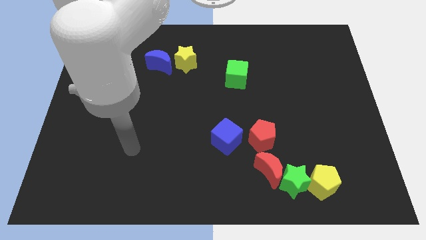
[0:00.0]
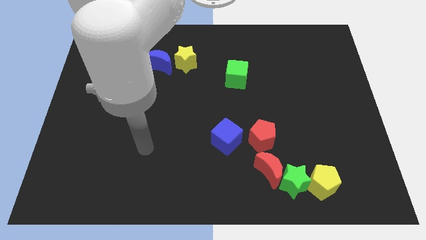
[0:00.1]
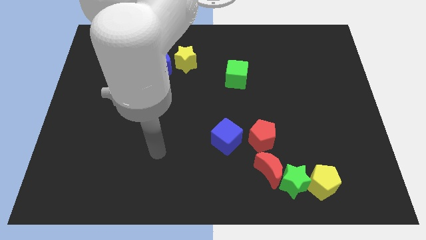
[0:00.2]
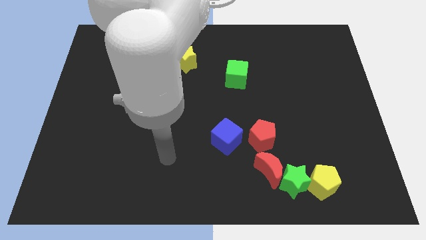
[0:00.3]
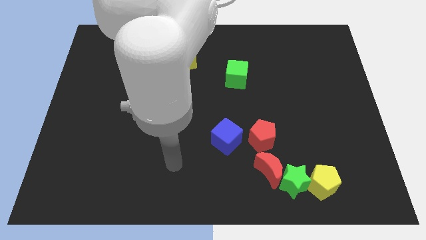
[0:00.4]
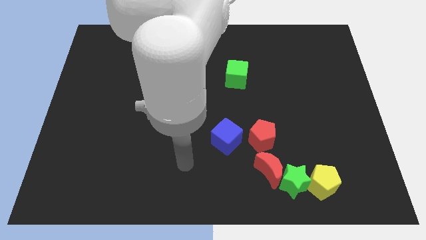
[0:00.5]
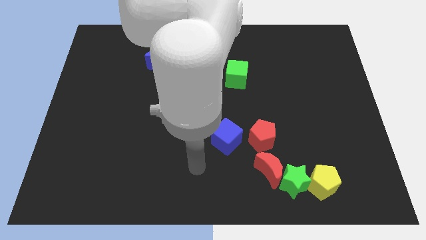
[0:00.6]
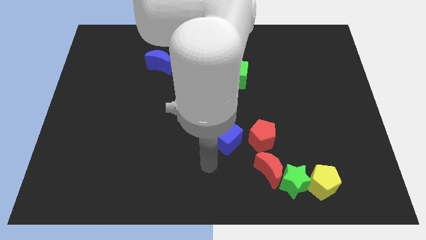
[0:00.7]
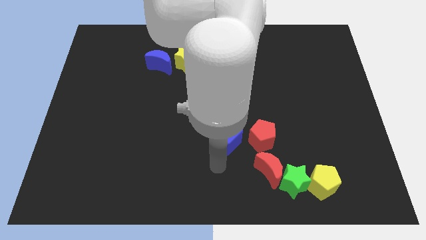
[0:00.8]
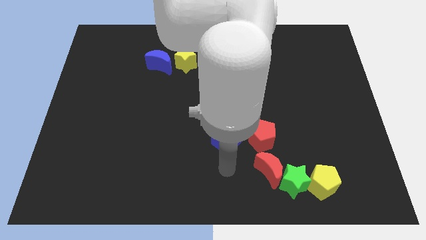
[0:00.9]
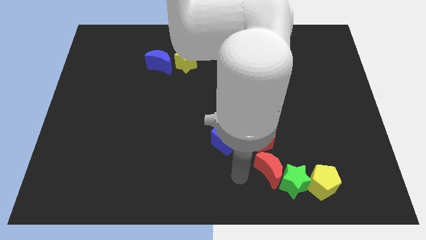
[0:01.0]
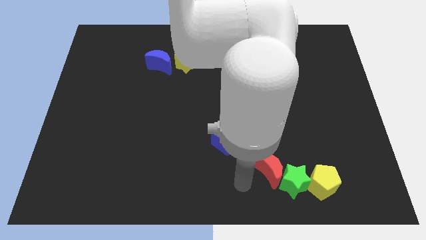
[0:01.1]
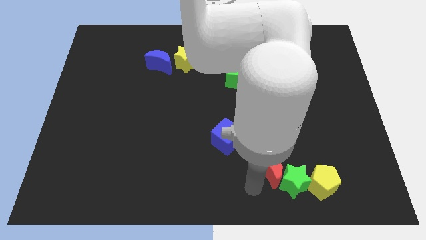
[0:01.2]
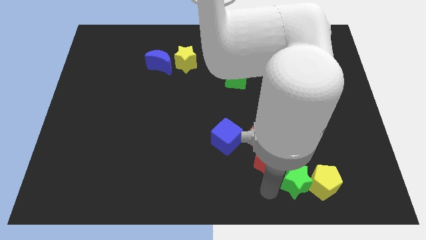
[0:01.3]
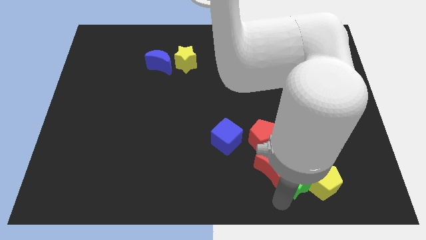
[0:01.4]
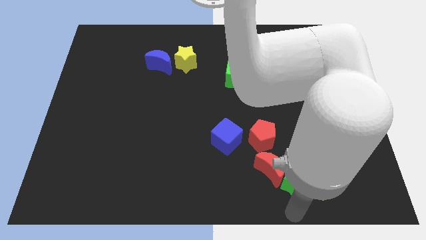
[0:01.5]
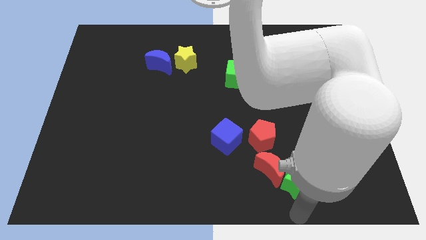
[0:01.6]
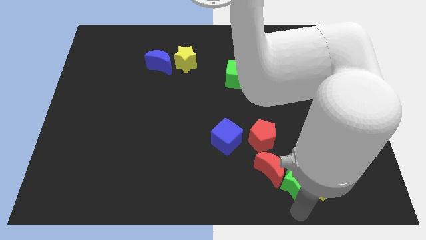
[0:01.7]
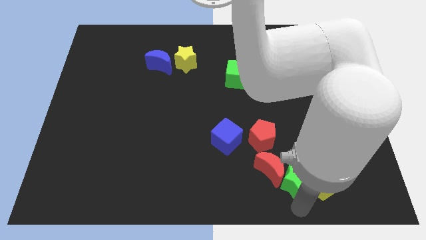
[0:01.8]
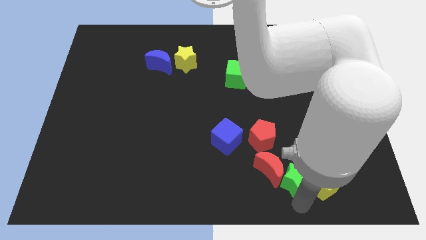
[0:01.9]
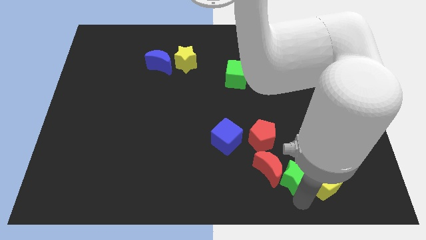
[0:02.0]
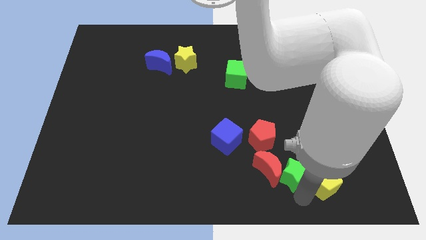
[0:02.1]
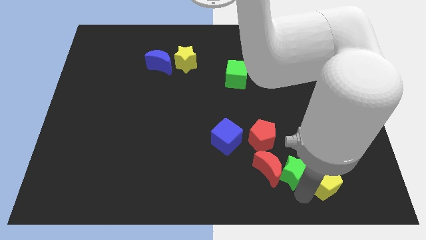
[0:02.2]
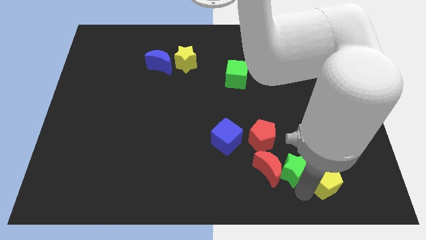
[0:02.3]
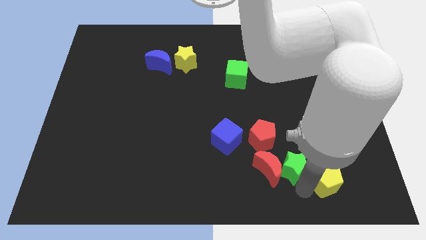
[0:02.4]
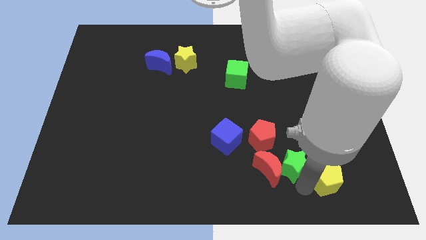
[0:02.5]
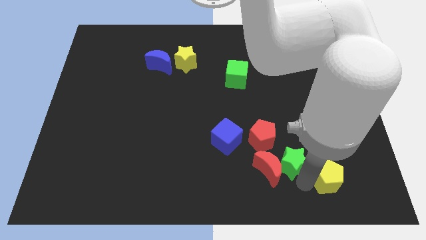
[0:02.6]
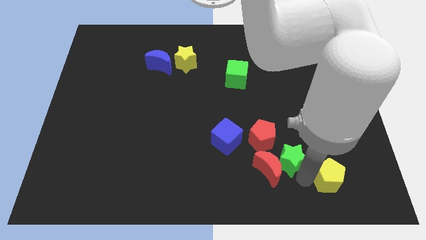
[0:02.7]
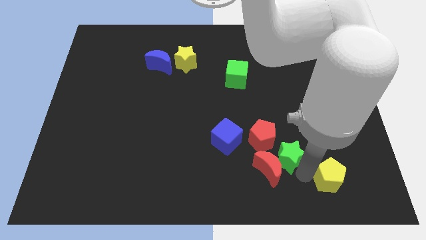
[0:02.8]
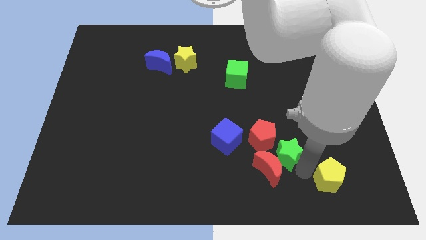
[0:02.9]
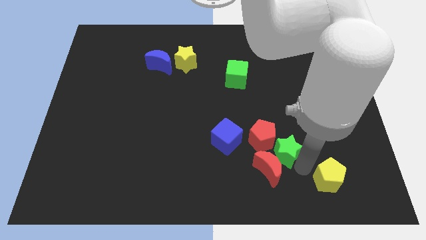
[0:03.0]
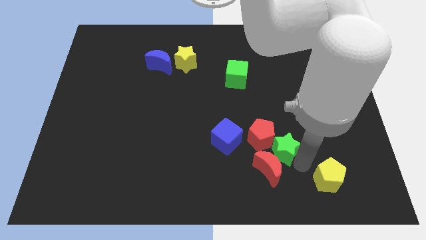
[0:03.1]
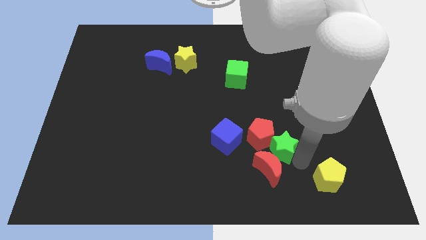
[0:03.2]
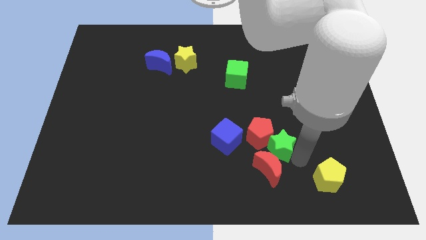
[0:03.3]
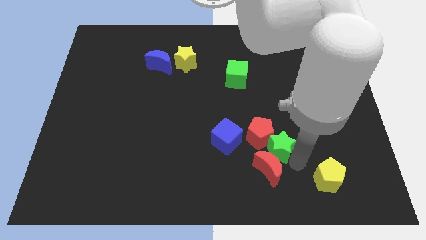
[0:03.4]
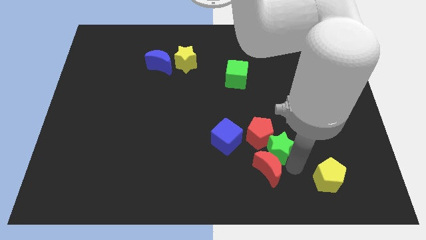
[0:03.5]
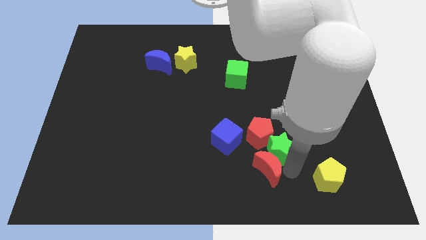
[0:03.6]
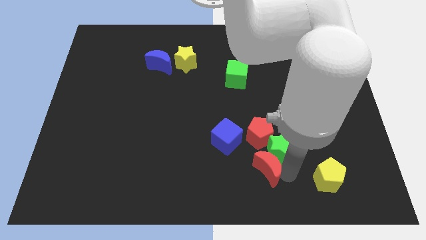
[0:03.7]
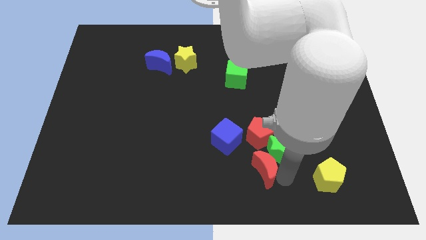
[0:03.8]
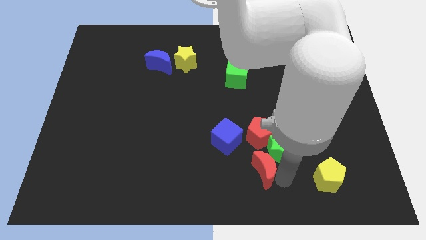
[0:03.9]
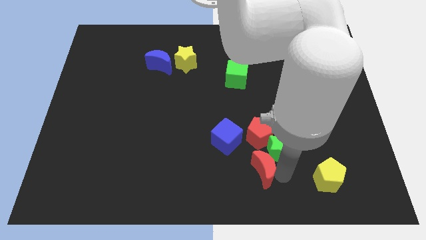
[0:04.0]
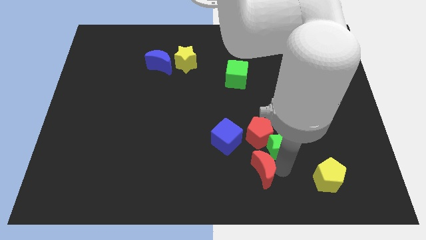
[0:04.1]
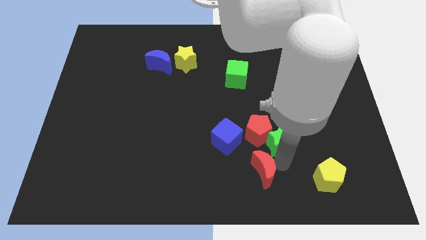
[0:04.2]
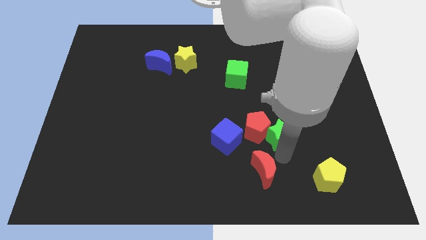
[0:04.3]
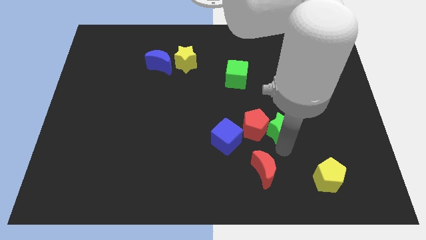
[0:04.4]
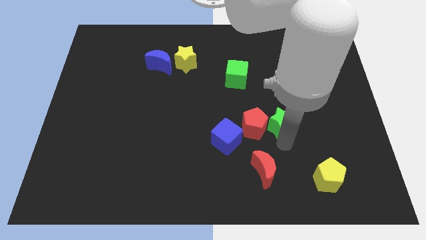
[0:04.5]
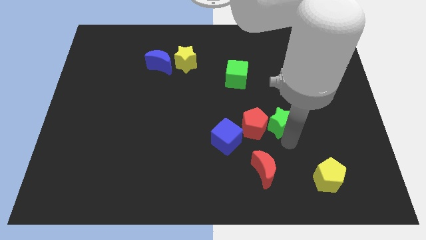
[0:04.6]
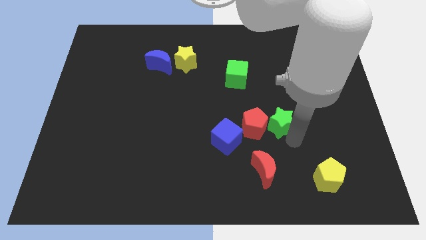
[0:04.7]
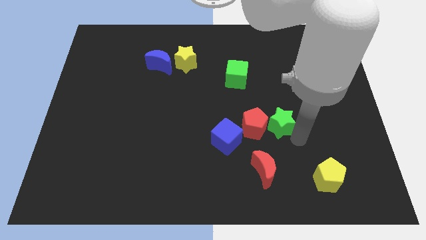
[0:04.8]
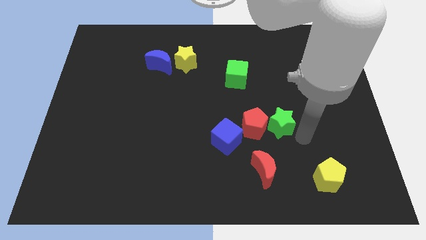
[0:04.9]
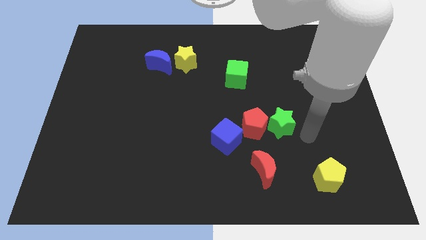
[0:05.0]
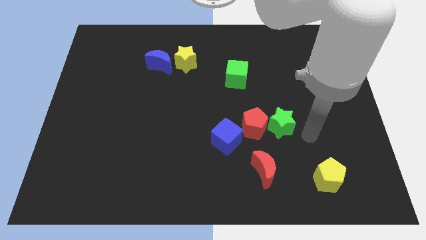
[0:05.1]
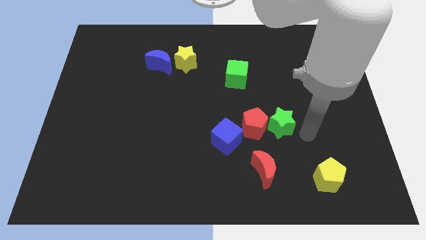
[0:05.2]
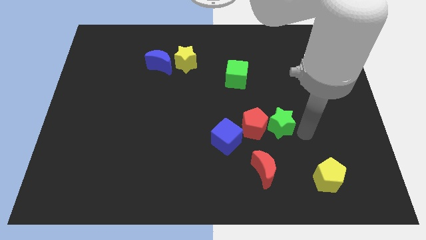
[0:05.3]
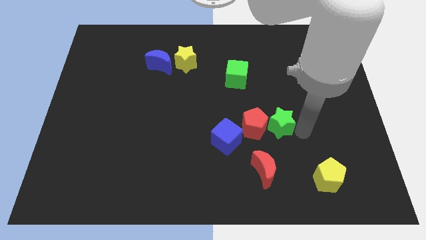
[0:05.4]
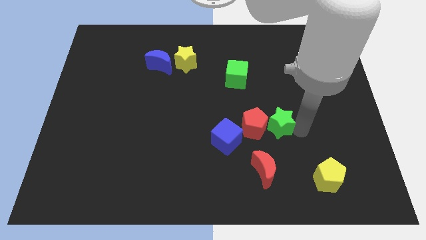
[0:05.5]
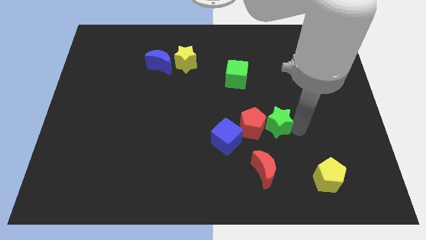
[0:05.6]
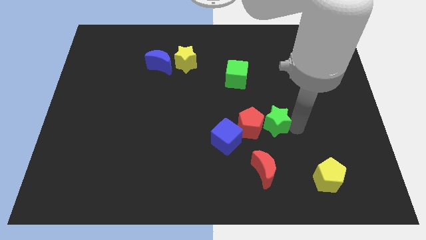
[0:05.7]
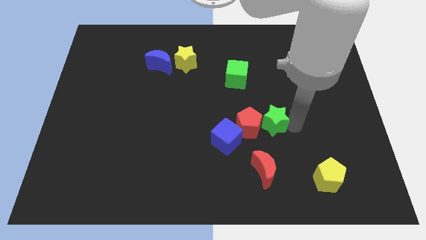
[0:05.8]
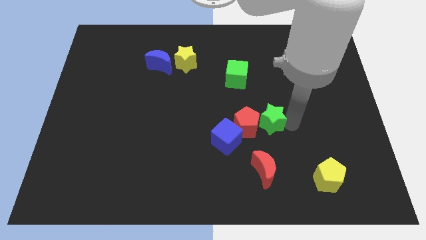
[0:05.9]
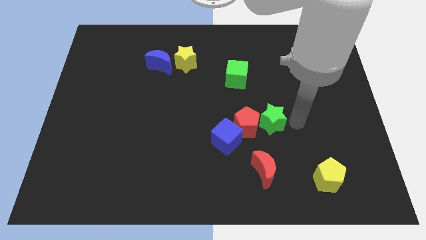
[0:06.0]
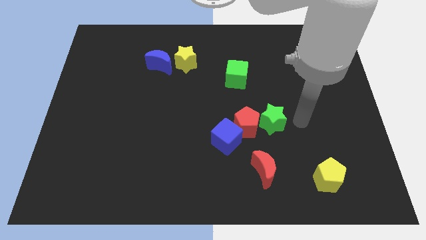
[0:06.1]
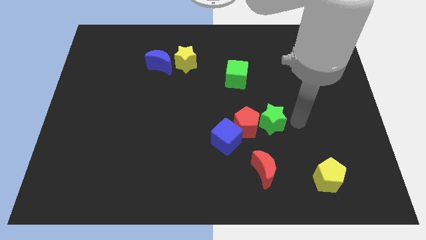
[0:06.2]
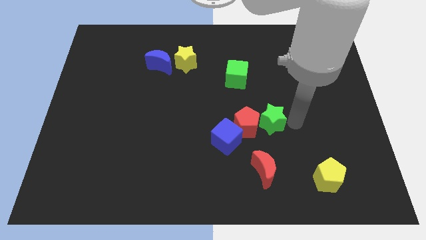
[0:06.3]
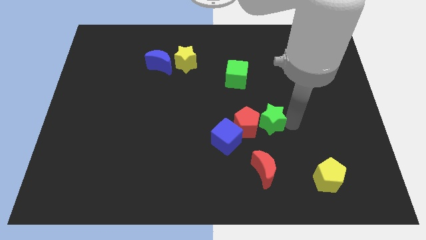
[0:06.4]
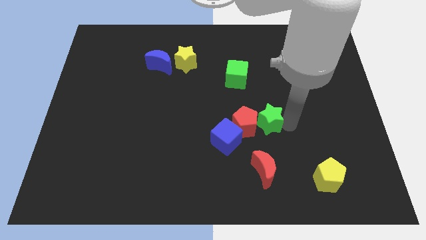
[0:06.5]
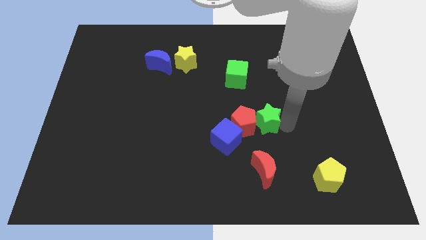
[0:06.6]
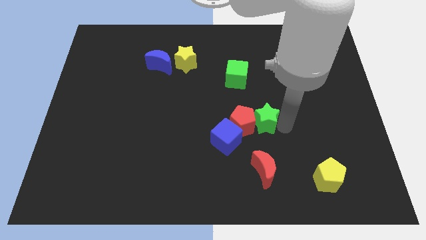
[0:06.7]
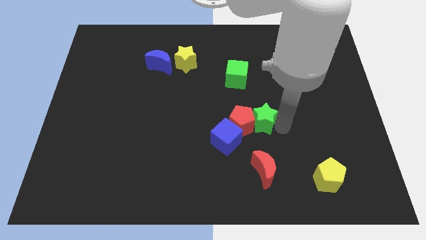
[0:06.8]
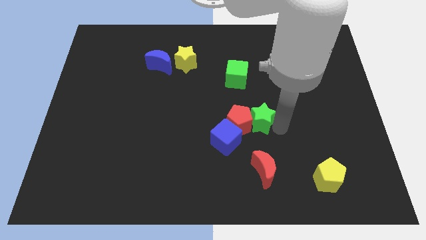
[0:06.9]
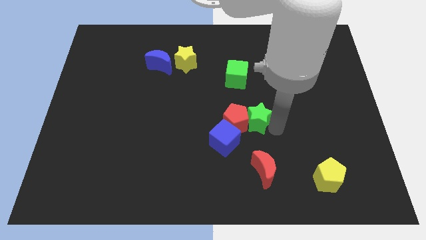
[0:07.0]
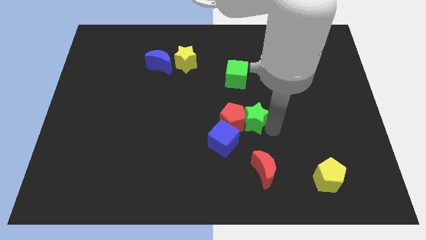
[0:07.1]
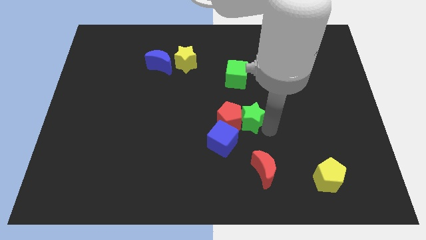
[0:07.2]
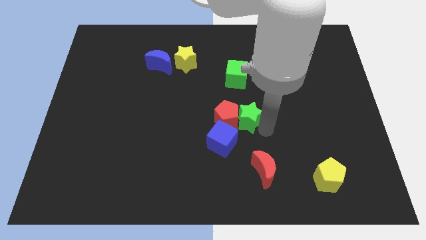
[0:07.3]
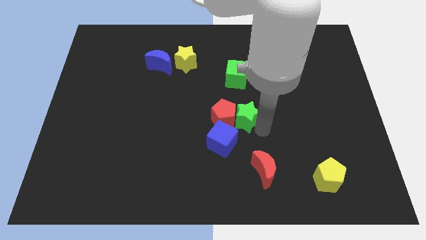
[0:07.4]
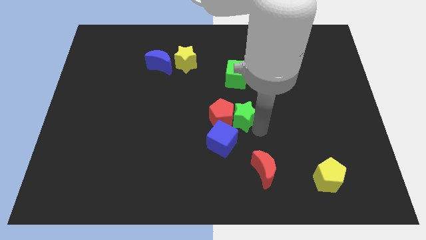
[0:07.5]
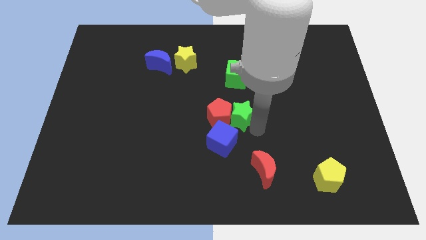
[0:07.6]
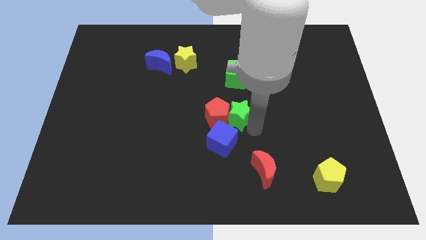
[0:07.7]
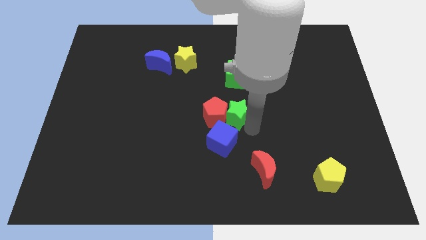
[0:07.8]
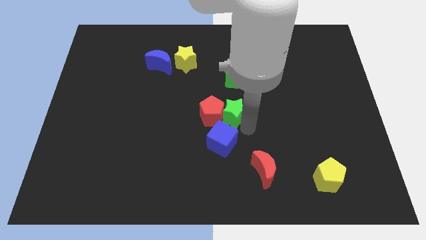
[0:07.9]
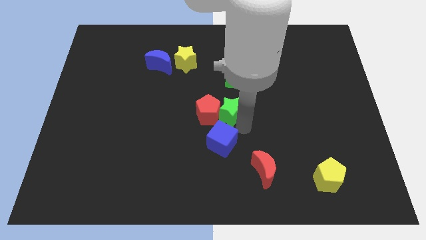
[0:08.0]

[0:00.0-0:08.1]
slide the green star upwards and then to the left
